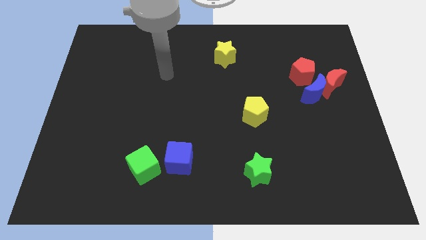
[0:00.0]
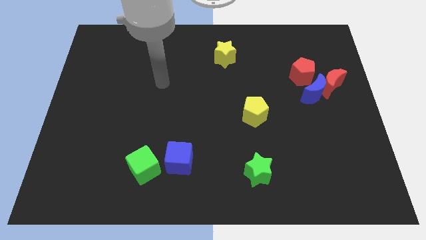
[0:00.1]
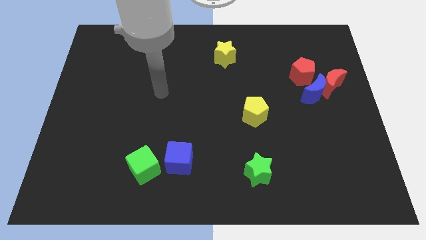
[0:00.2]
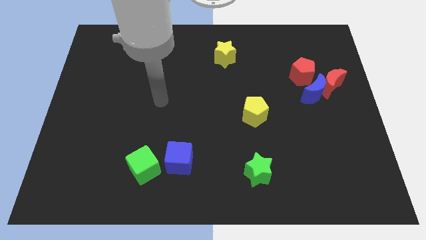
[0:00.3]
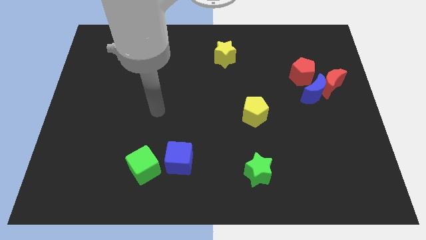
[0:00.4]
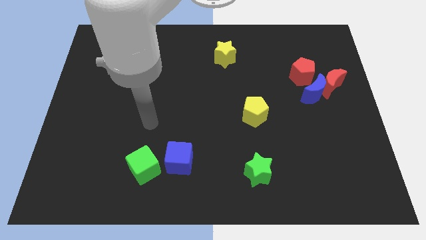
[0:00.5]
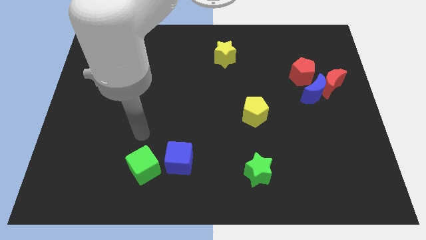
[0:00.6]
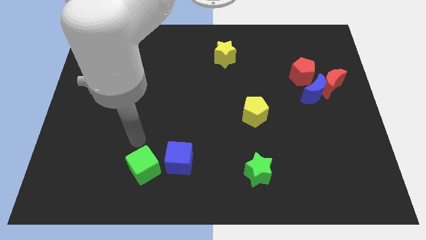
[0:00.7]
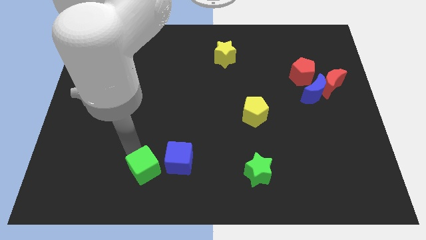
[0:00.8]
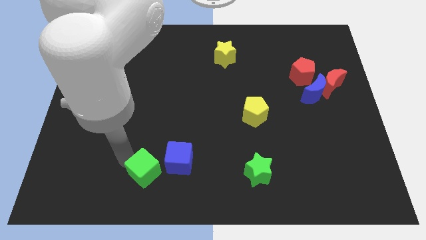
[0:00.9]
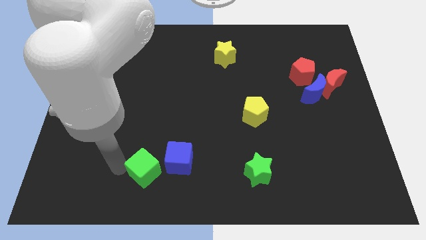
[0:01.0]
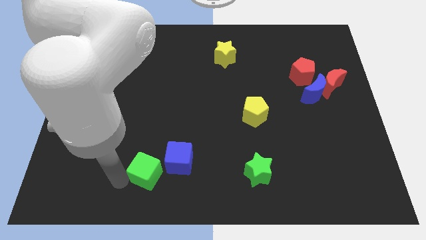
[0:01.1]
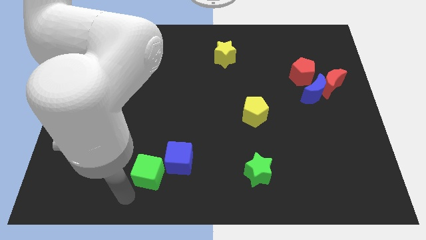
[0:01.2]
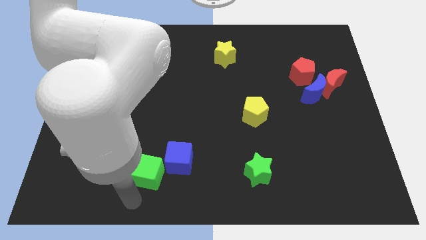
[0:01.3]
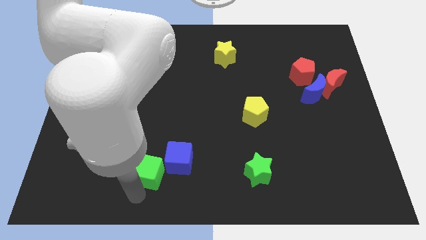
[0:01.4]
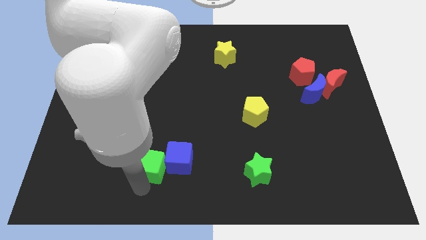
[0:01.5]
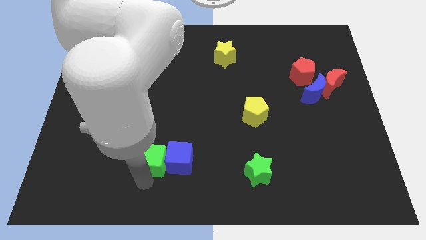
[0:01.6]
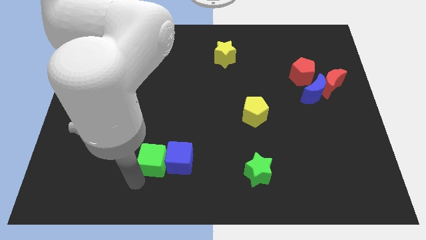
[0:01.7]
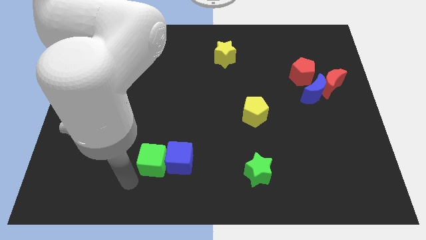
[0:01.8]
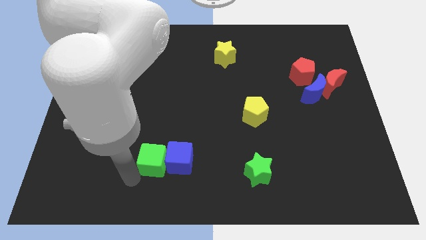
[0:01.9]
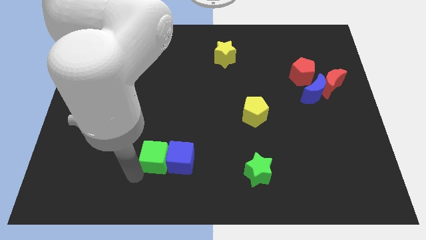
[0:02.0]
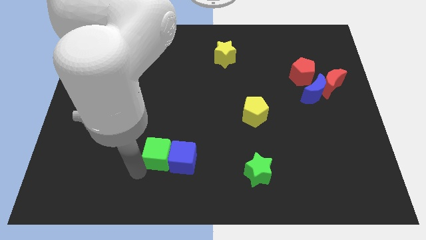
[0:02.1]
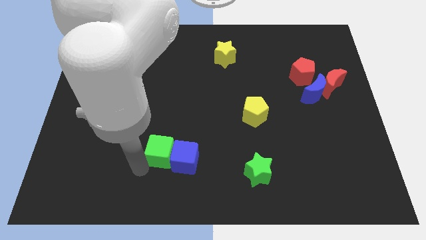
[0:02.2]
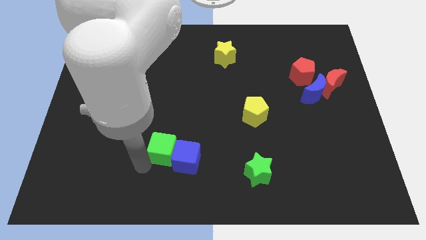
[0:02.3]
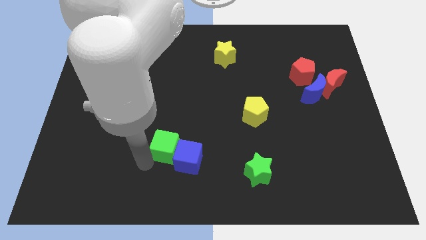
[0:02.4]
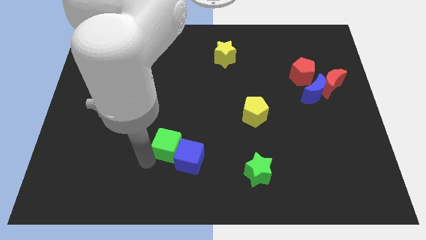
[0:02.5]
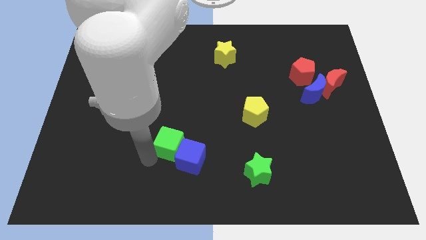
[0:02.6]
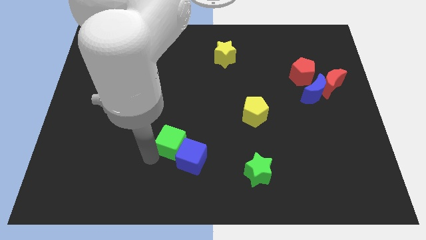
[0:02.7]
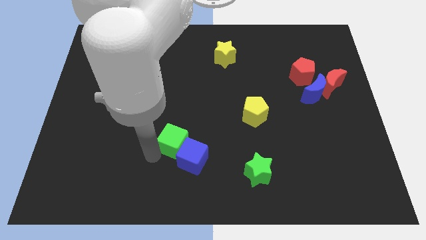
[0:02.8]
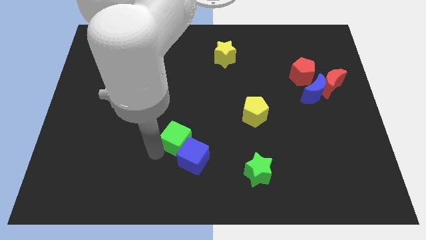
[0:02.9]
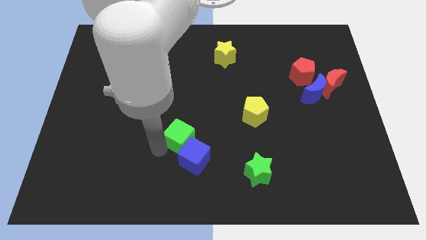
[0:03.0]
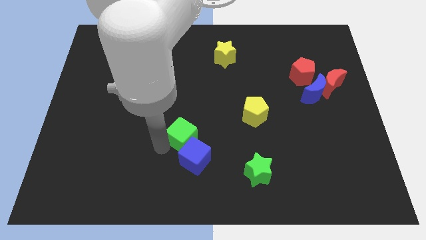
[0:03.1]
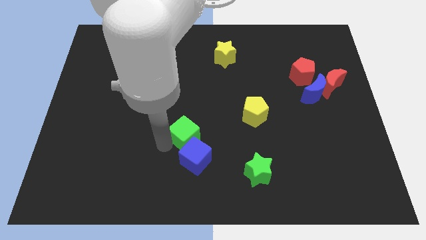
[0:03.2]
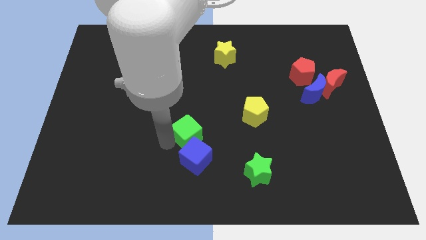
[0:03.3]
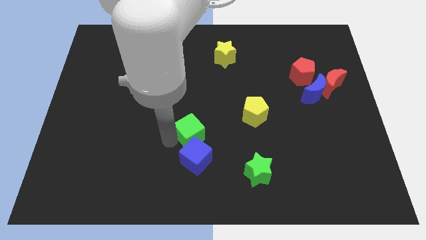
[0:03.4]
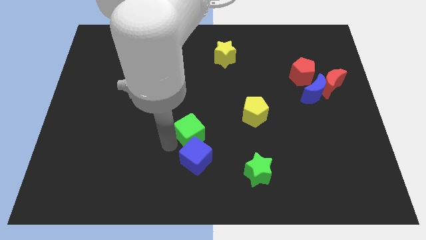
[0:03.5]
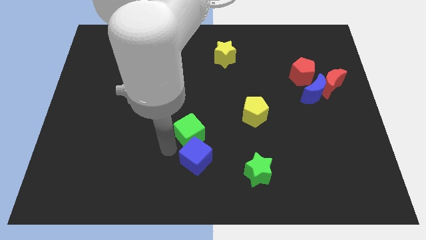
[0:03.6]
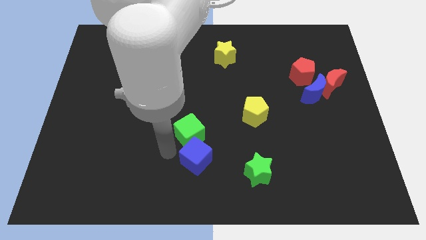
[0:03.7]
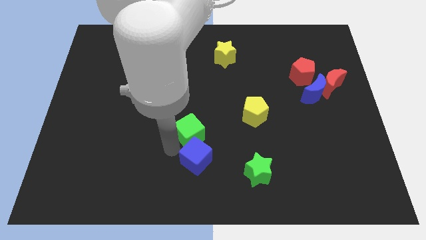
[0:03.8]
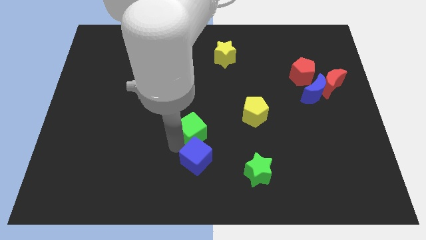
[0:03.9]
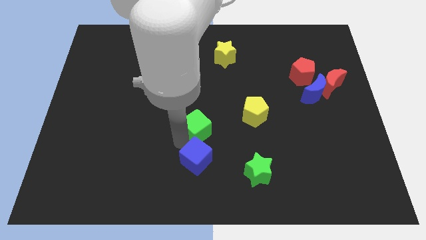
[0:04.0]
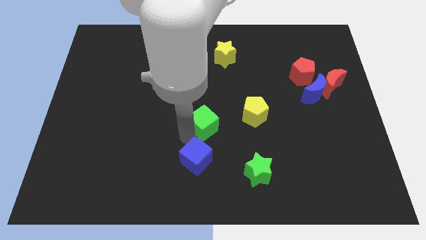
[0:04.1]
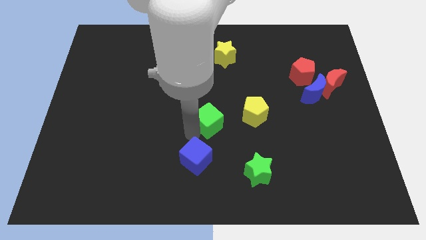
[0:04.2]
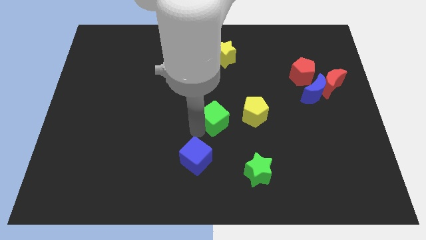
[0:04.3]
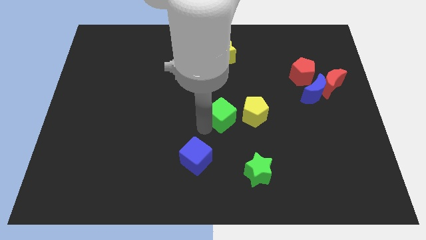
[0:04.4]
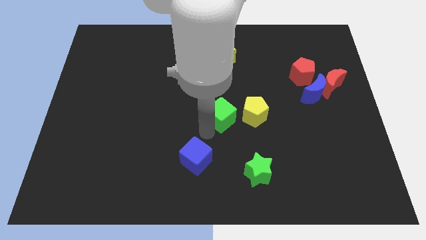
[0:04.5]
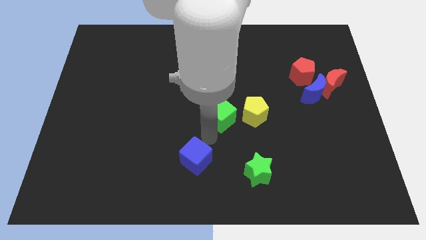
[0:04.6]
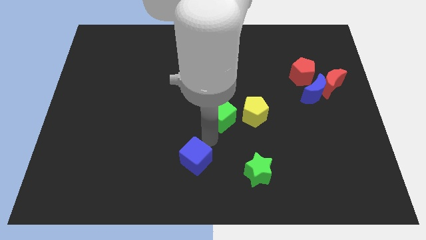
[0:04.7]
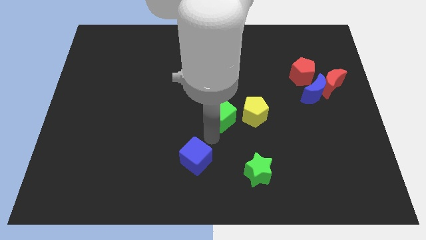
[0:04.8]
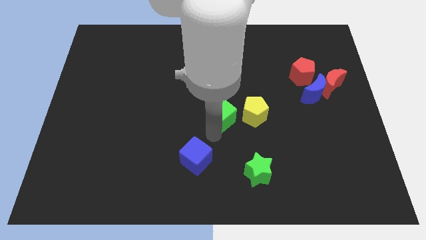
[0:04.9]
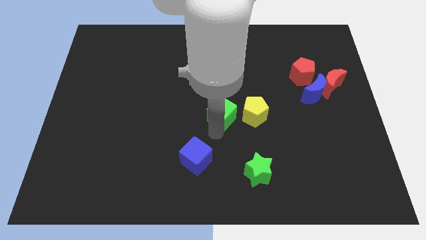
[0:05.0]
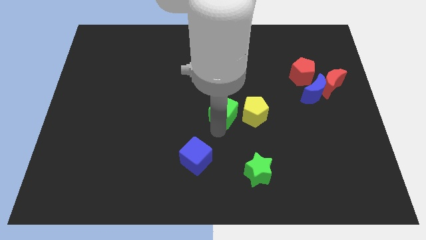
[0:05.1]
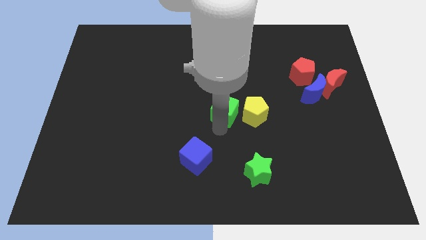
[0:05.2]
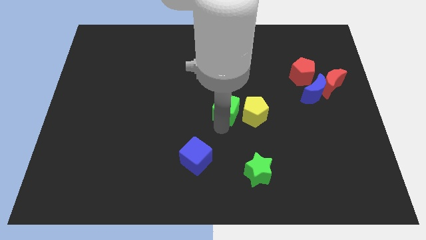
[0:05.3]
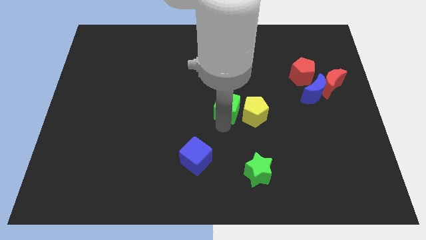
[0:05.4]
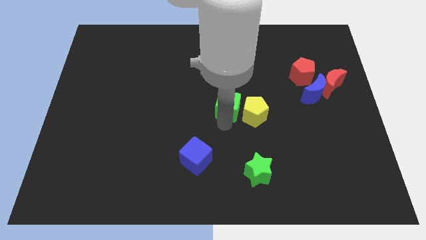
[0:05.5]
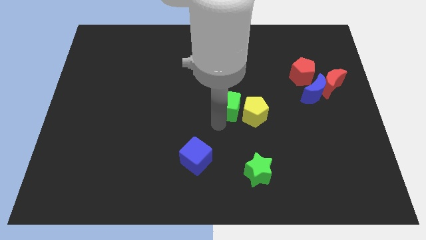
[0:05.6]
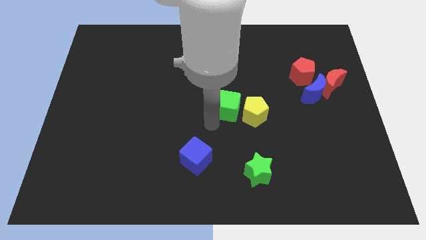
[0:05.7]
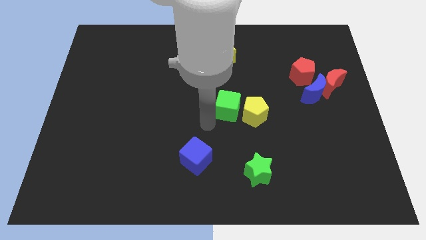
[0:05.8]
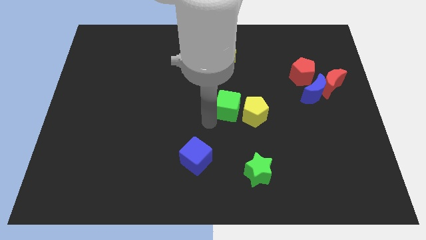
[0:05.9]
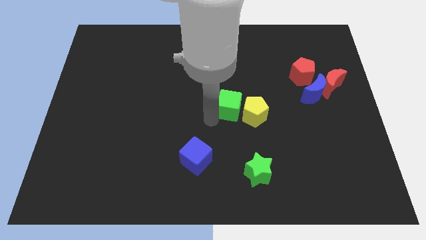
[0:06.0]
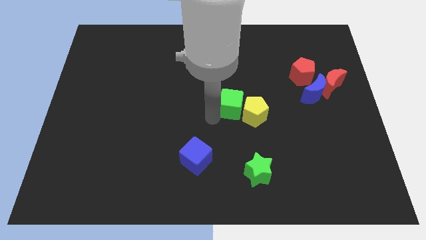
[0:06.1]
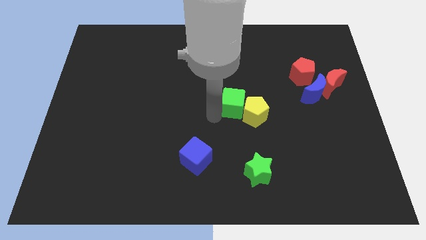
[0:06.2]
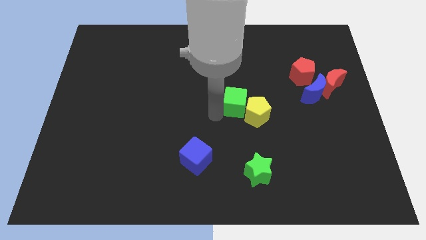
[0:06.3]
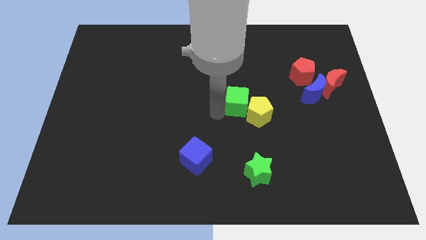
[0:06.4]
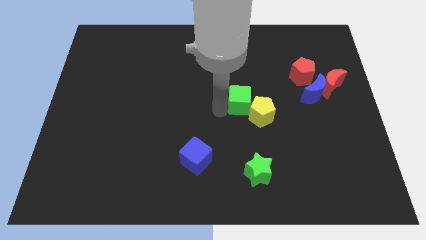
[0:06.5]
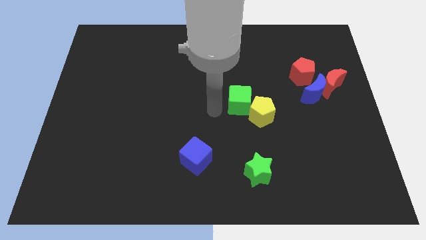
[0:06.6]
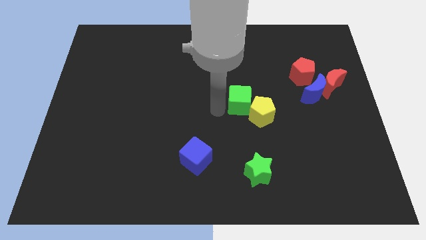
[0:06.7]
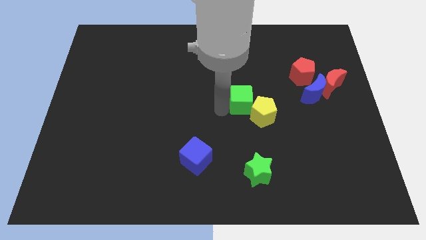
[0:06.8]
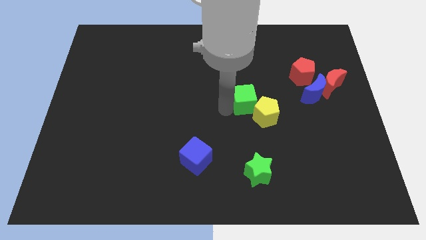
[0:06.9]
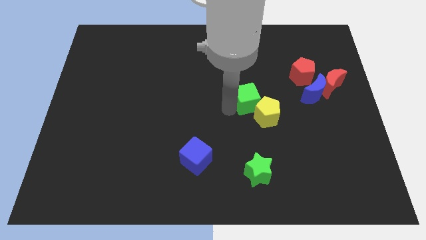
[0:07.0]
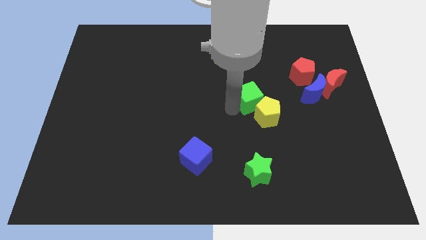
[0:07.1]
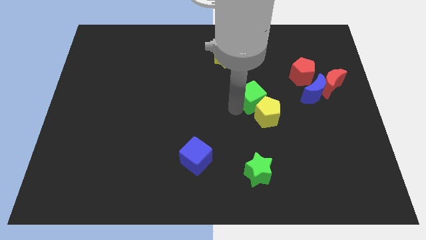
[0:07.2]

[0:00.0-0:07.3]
push the green cube left of the blue moon

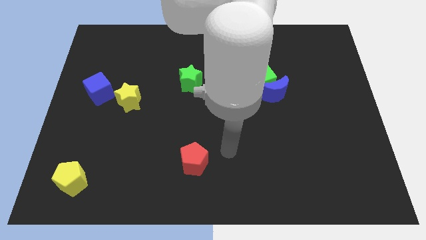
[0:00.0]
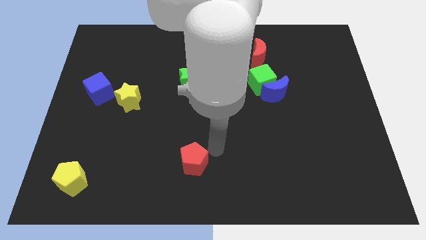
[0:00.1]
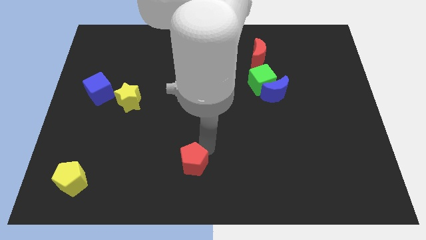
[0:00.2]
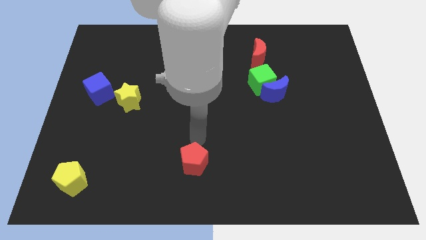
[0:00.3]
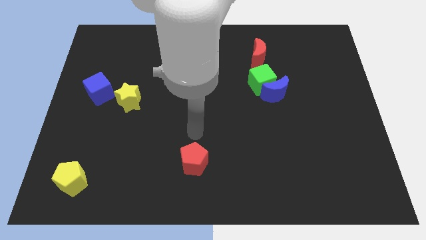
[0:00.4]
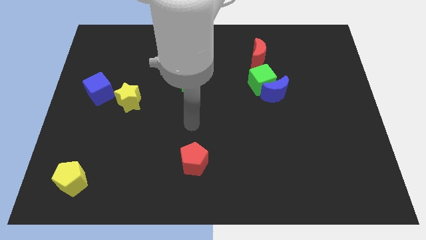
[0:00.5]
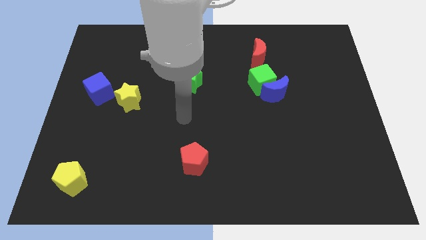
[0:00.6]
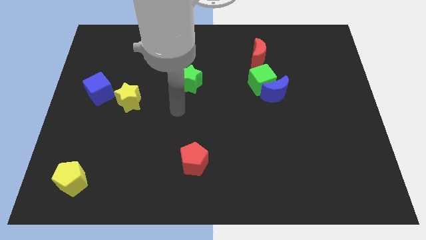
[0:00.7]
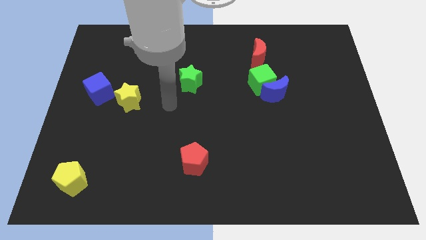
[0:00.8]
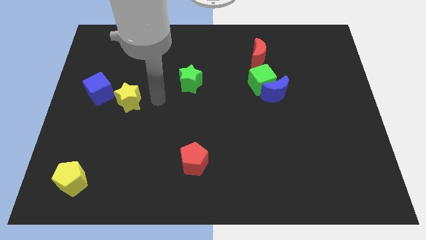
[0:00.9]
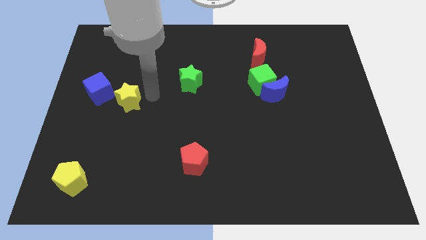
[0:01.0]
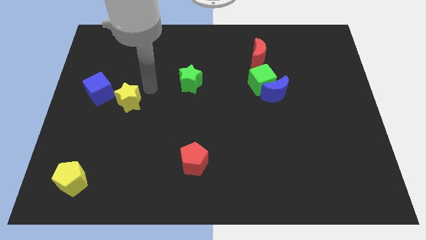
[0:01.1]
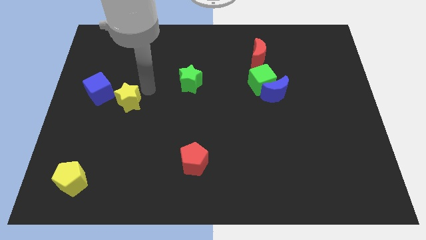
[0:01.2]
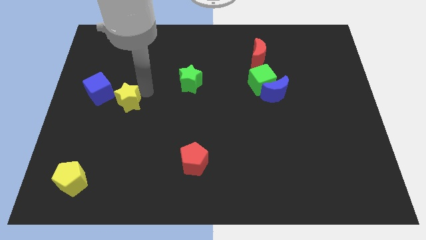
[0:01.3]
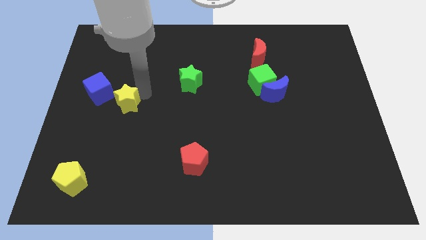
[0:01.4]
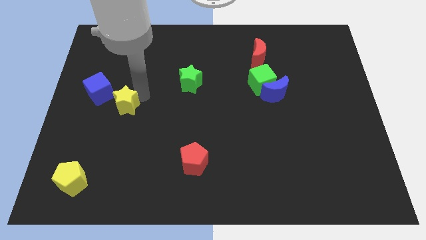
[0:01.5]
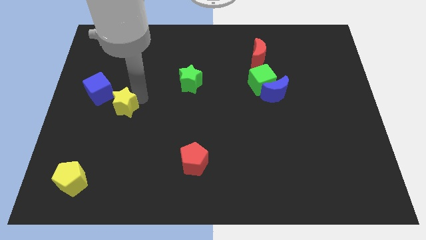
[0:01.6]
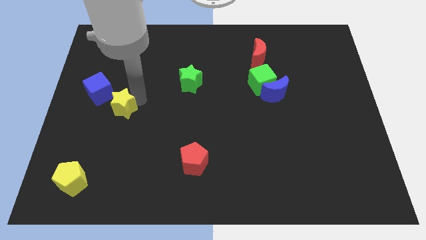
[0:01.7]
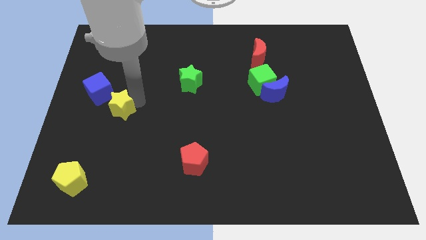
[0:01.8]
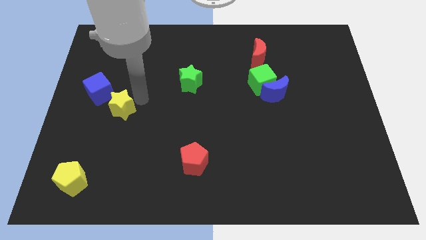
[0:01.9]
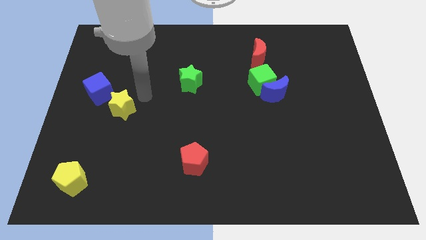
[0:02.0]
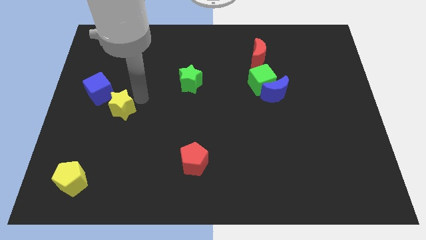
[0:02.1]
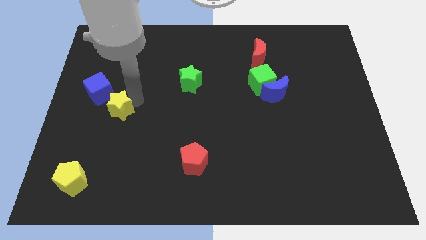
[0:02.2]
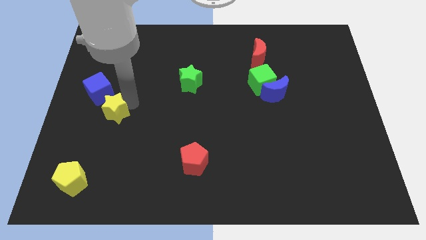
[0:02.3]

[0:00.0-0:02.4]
move the yellow star to the bottom of the blue cube
